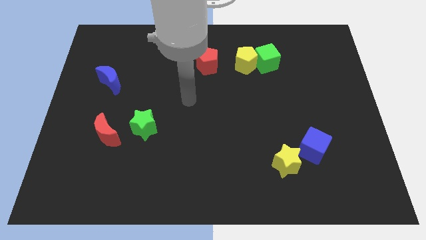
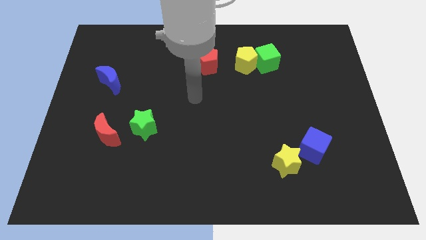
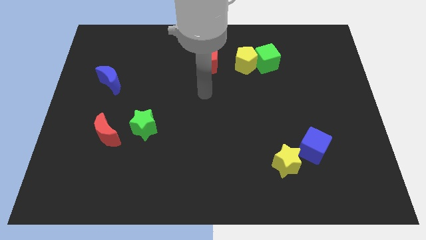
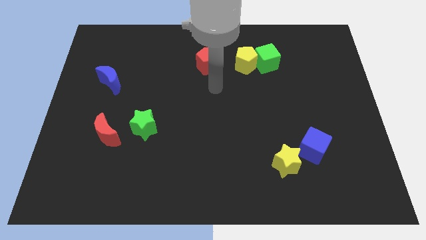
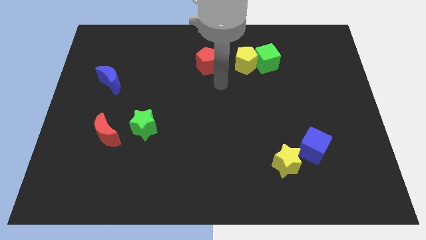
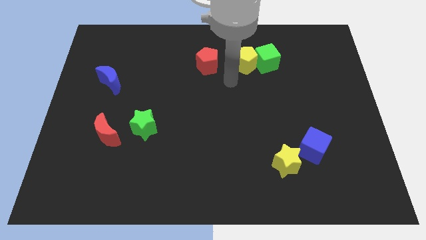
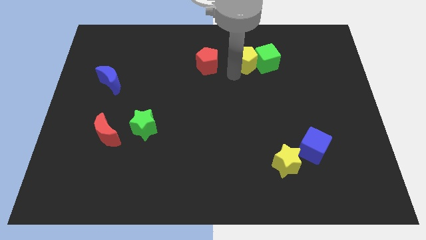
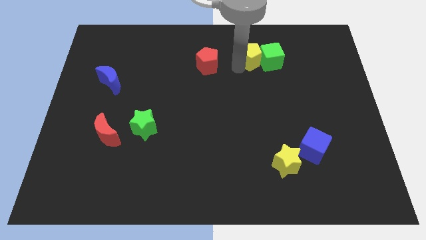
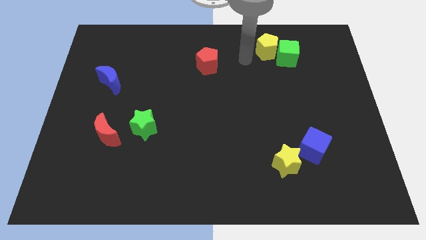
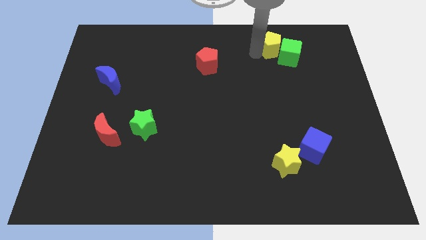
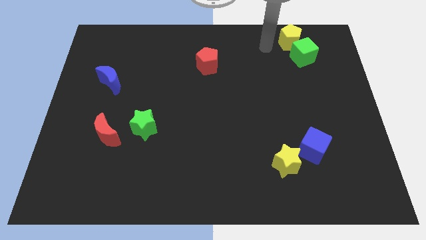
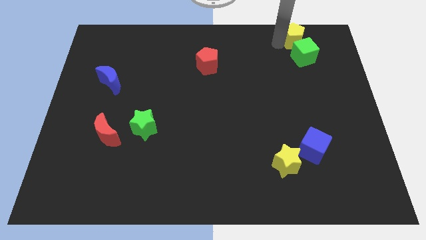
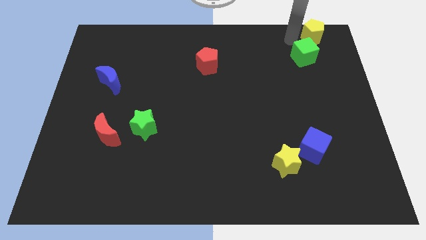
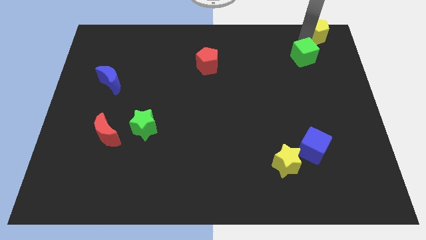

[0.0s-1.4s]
pull the green cube apart from the yellow pentagon

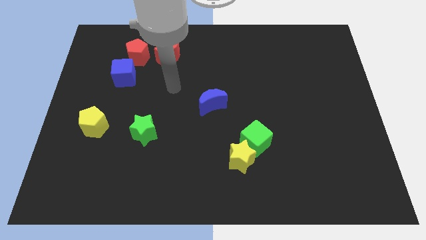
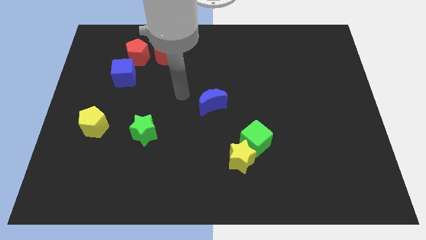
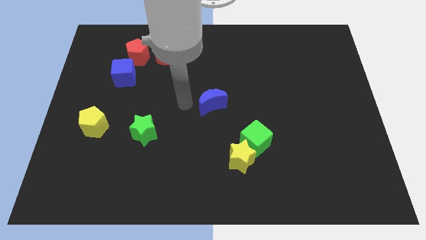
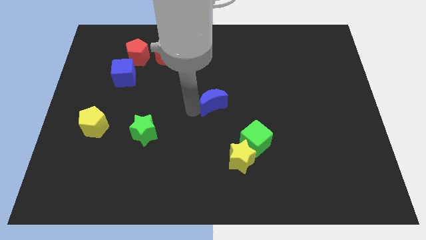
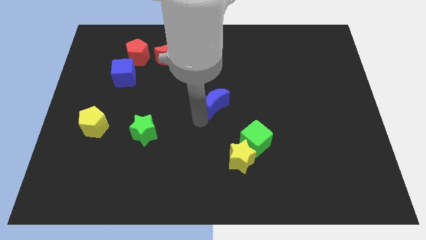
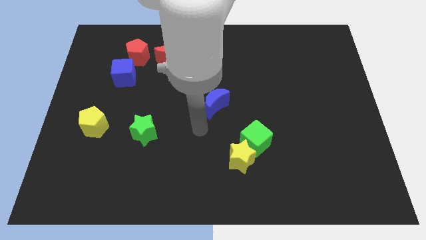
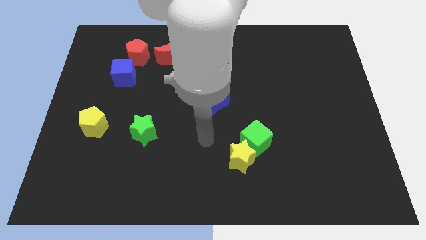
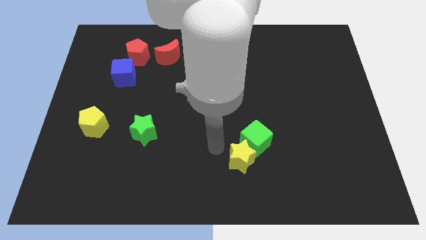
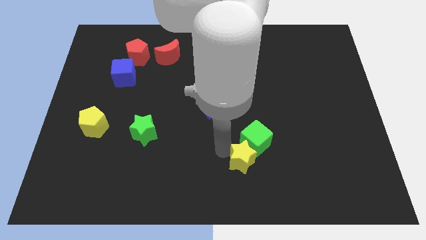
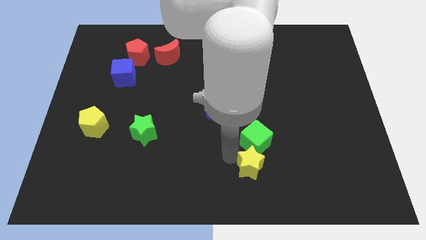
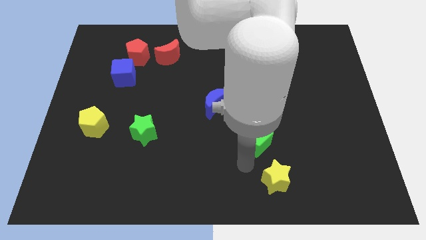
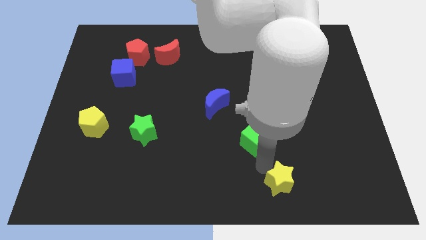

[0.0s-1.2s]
move the green cube away from the yellow star

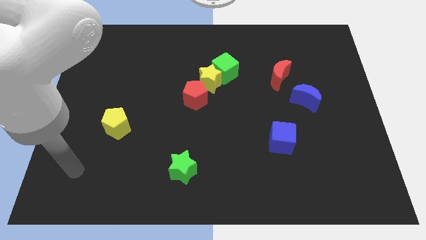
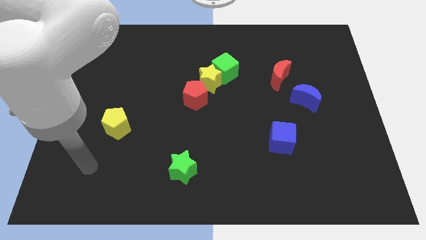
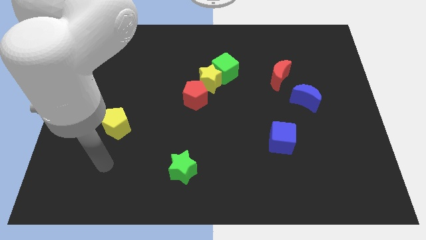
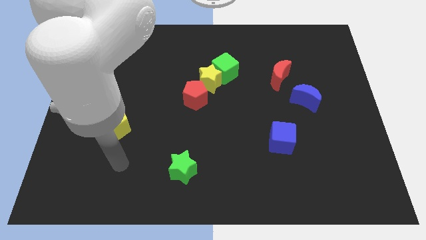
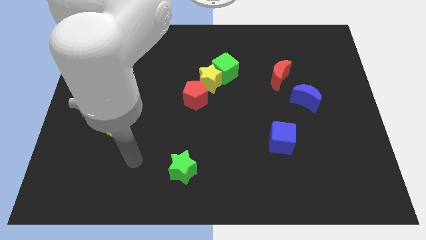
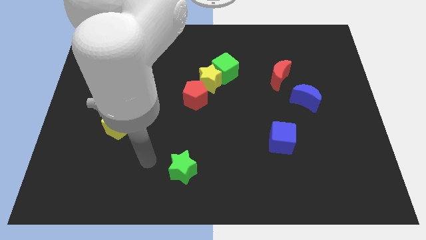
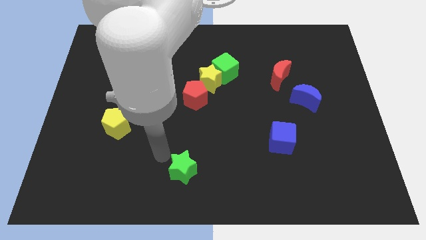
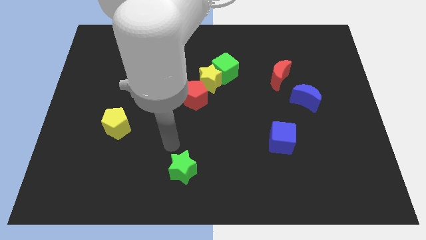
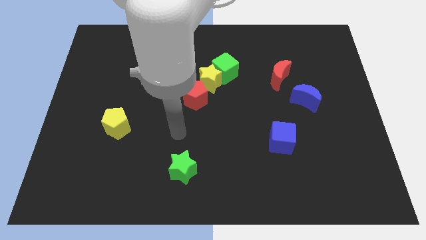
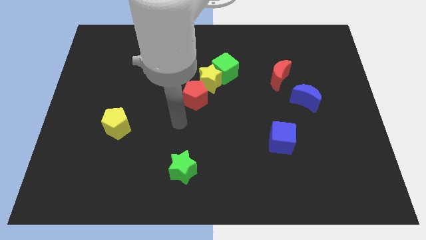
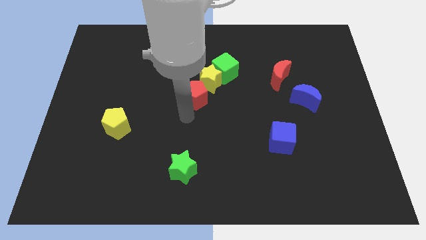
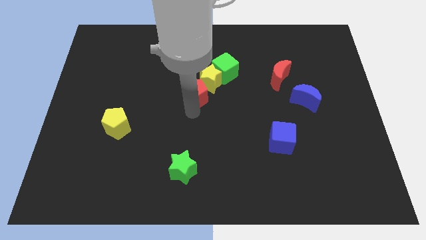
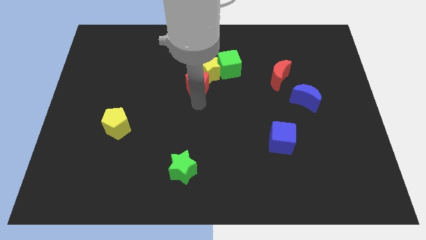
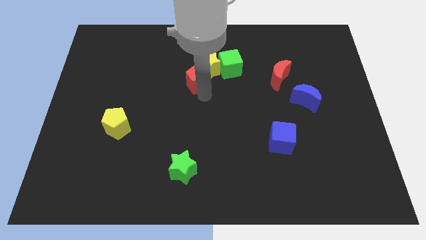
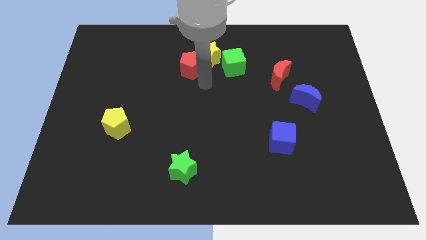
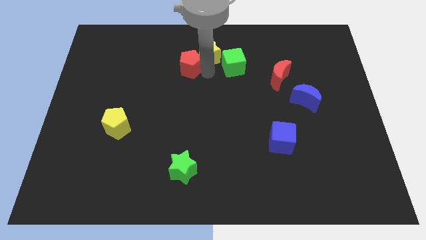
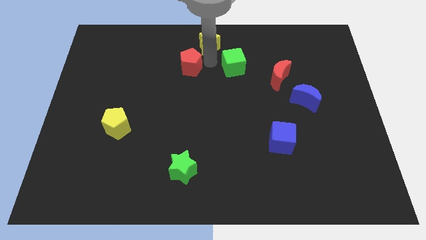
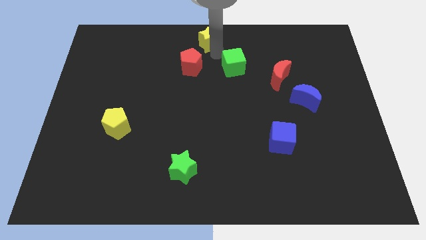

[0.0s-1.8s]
separate the green cube from the yellow star

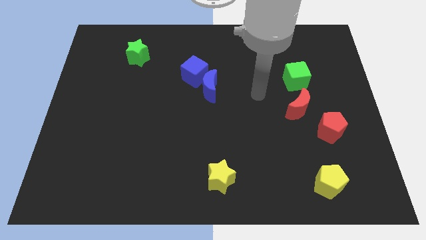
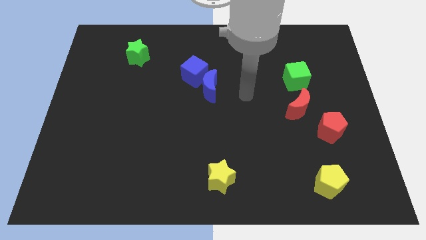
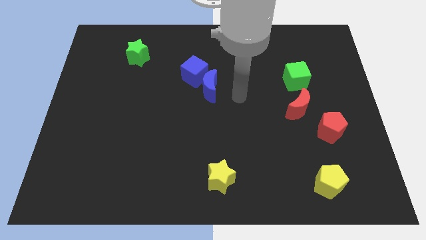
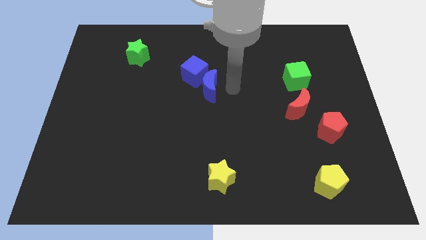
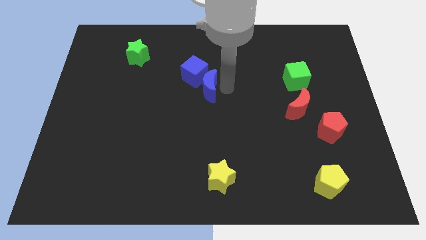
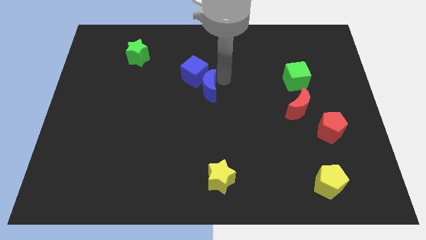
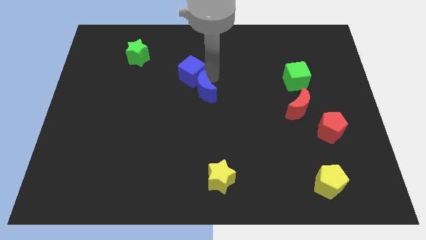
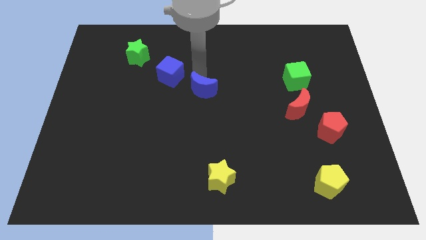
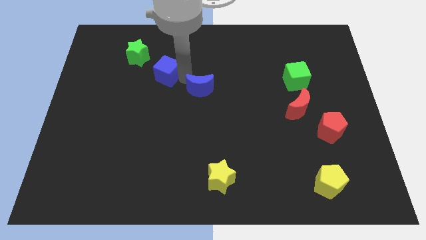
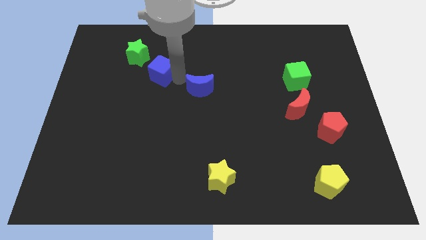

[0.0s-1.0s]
move the blue moon away from the blue cube

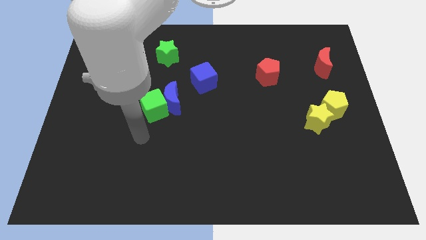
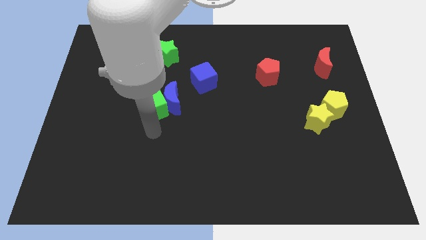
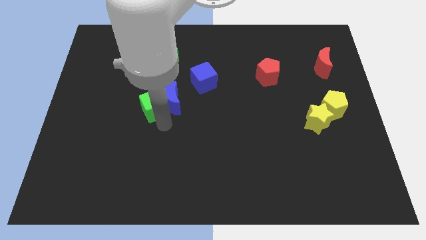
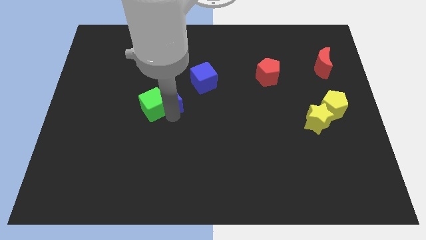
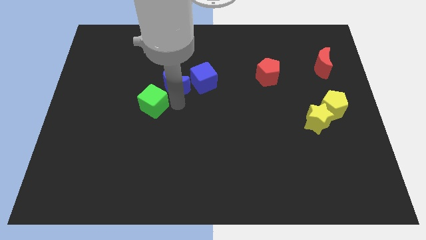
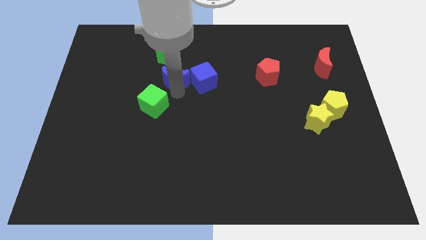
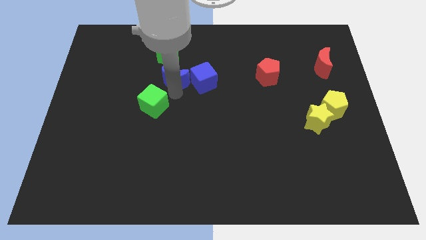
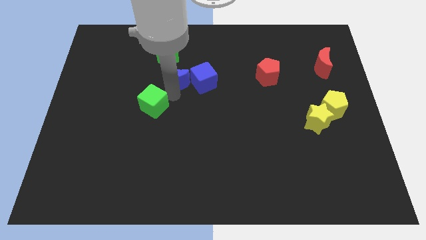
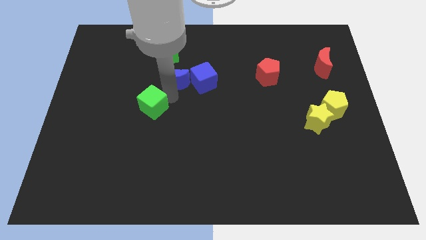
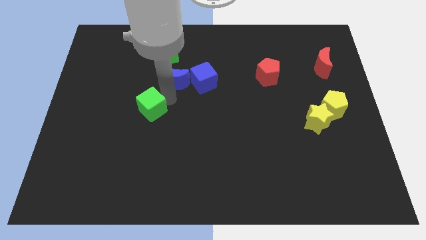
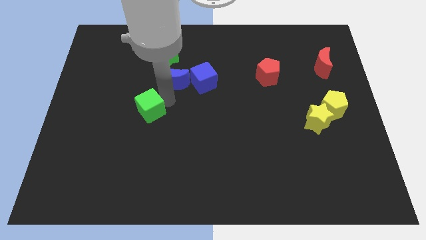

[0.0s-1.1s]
move the green cube away from the blue moon

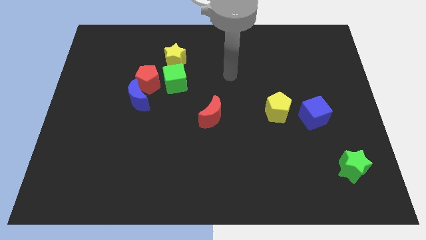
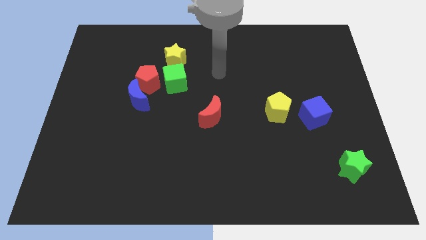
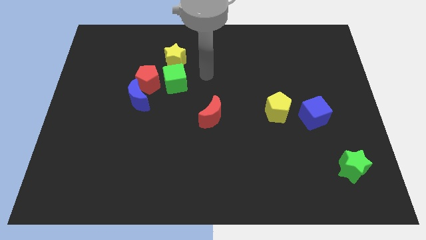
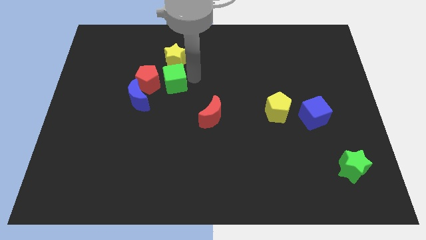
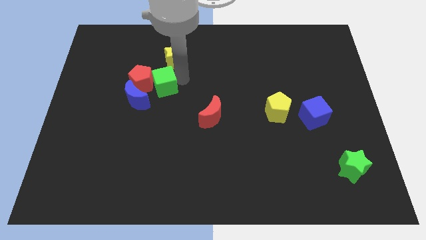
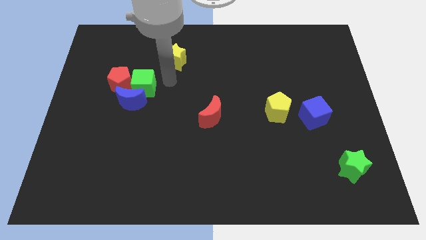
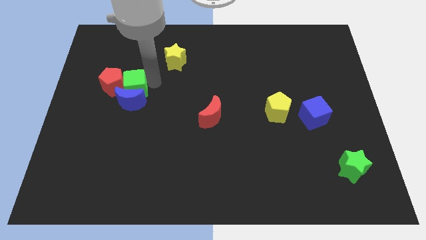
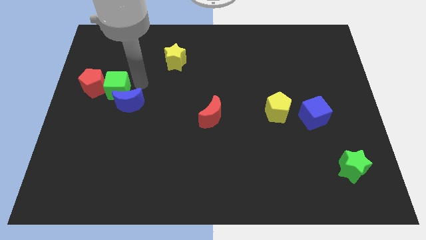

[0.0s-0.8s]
separate the red pentagon from the clump

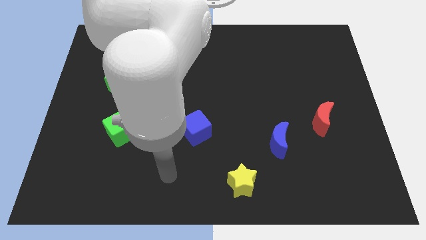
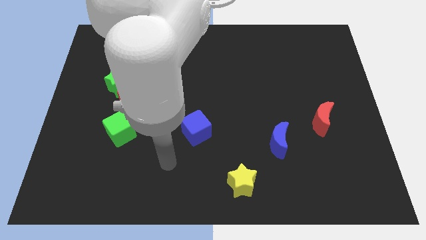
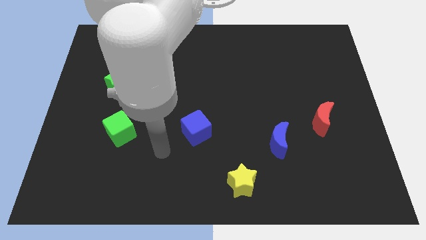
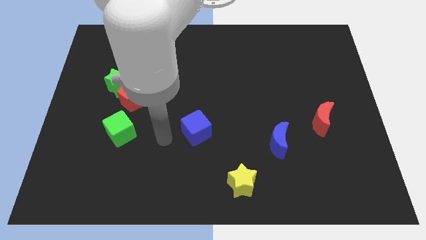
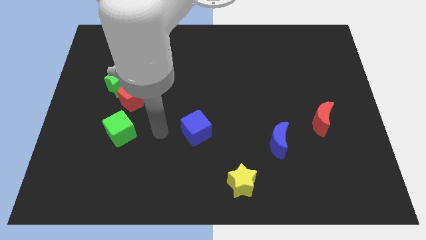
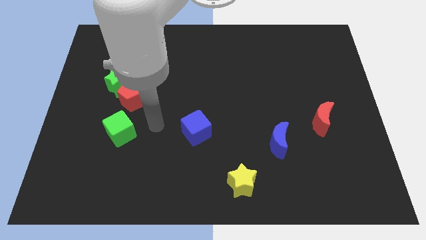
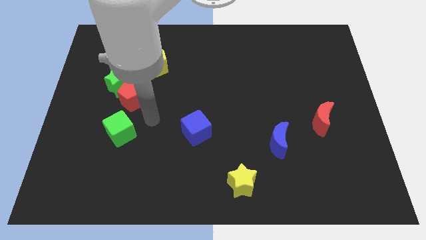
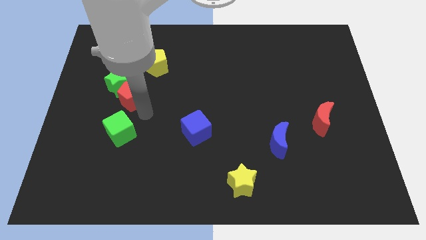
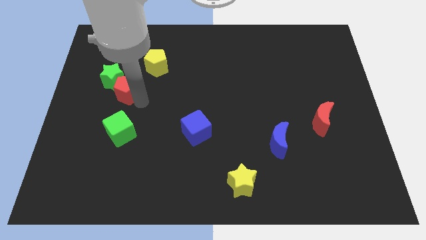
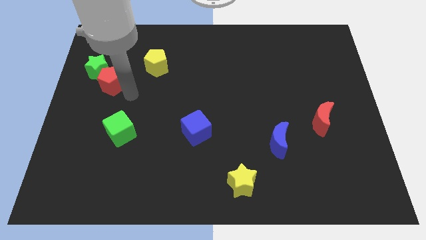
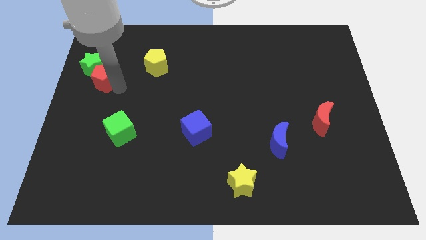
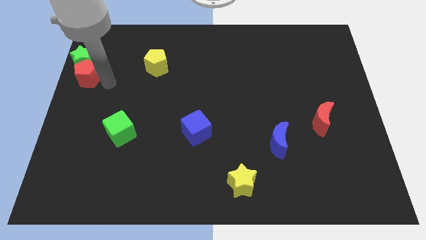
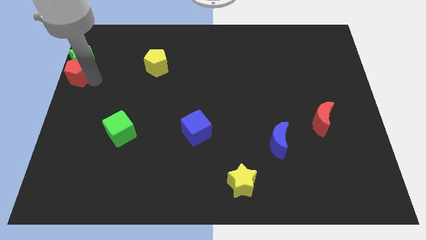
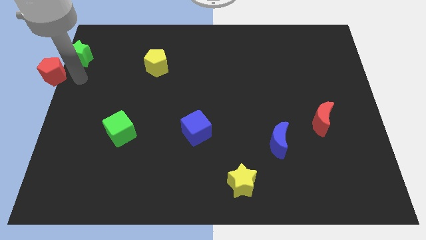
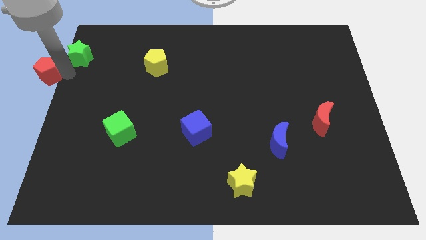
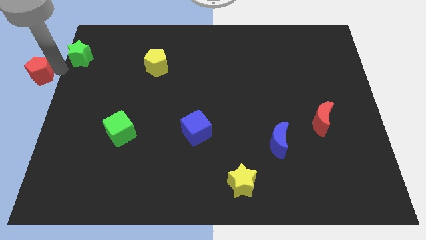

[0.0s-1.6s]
separate the green star from the red pentagon

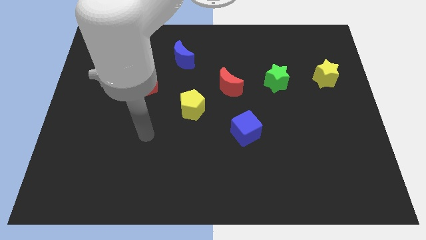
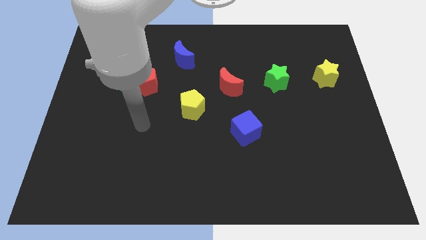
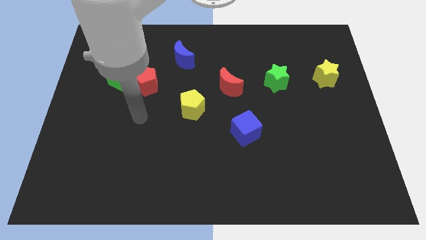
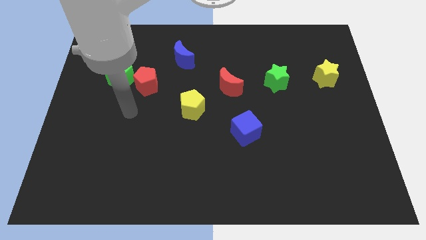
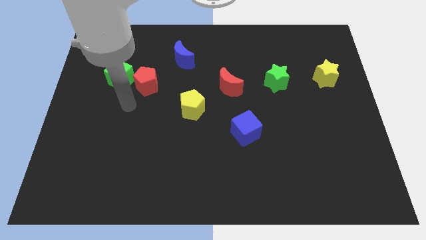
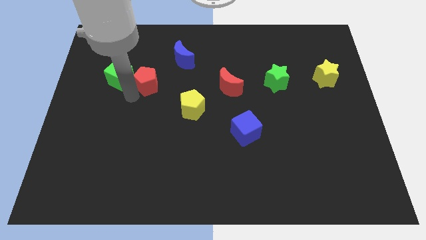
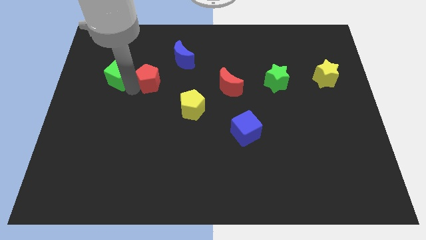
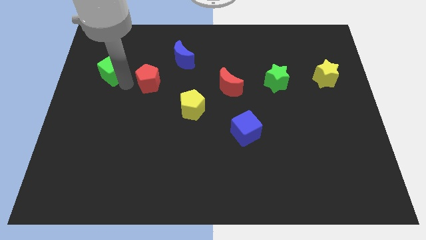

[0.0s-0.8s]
move the red pentagon away from the green cube
